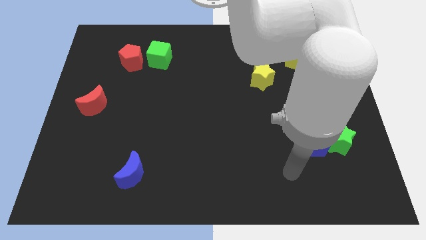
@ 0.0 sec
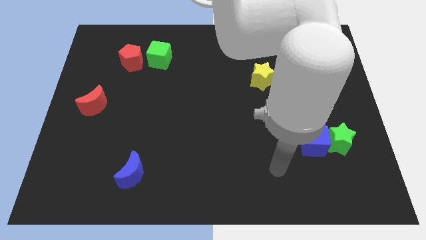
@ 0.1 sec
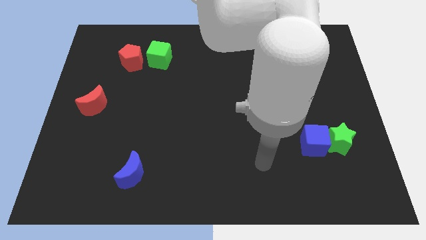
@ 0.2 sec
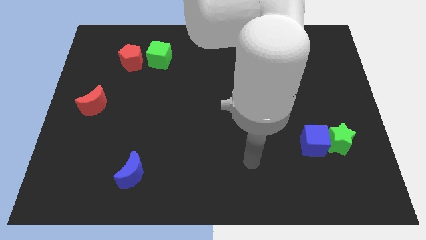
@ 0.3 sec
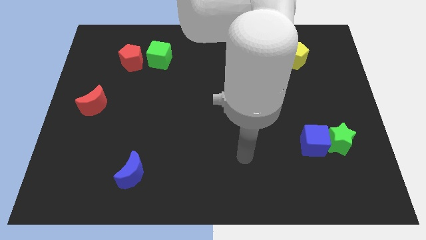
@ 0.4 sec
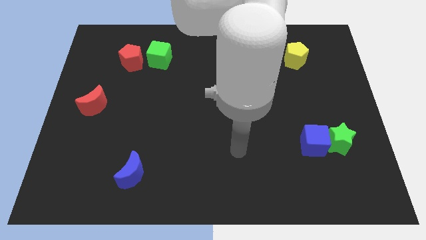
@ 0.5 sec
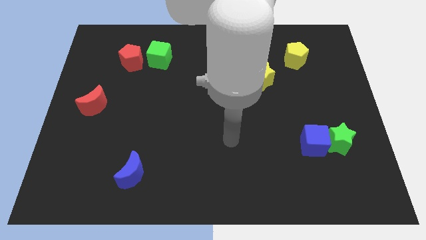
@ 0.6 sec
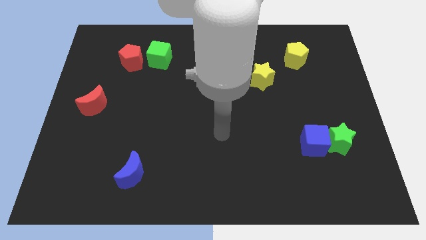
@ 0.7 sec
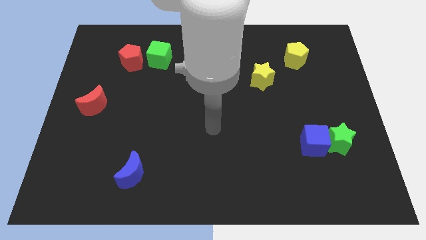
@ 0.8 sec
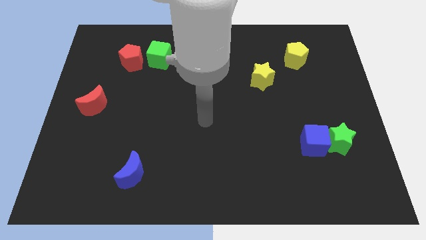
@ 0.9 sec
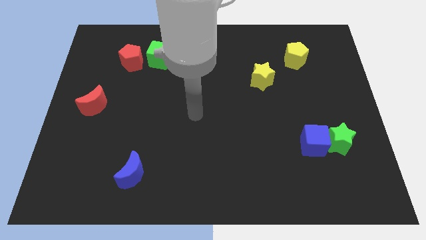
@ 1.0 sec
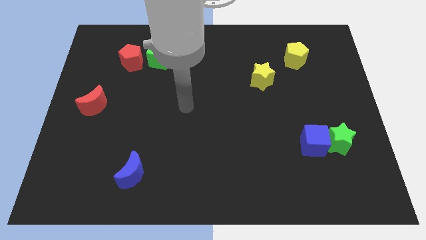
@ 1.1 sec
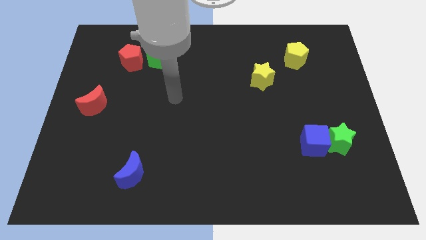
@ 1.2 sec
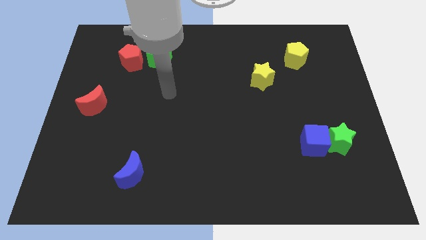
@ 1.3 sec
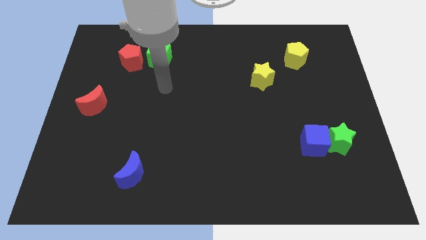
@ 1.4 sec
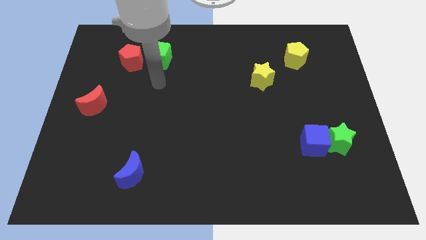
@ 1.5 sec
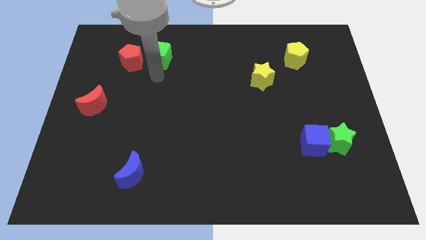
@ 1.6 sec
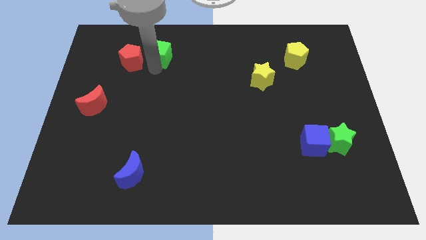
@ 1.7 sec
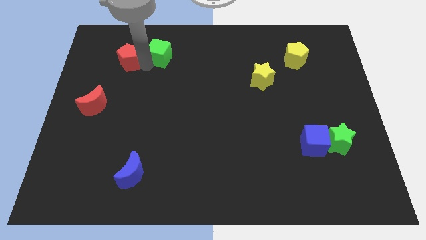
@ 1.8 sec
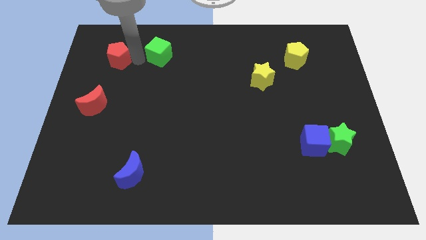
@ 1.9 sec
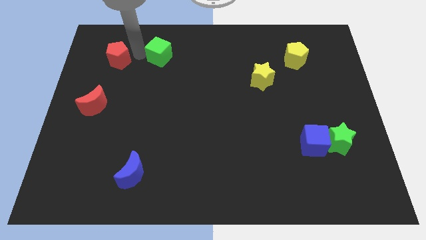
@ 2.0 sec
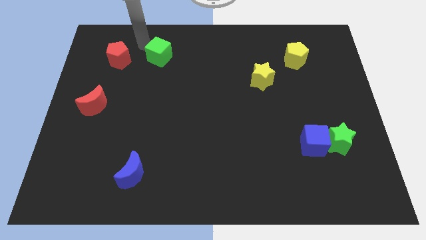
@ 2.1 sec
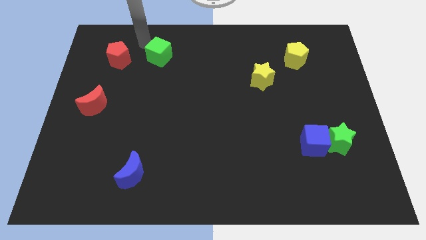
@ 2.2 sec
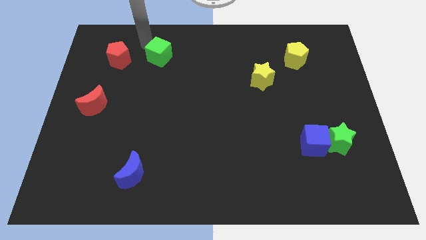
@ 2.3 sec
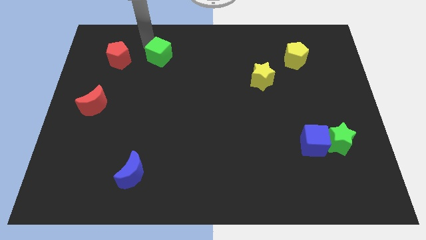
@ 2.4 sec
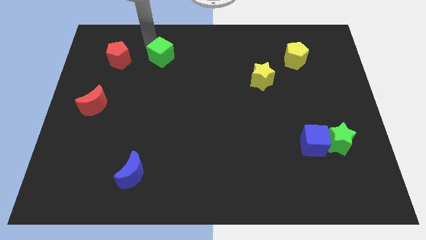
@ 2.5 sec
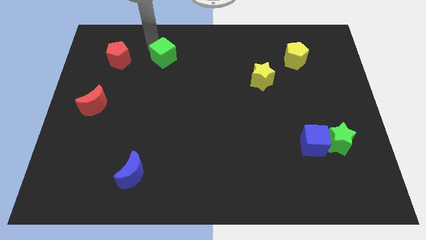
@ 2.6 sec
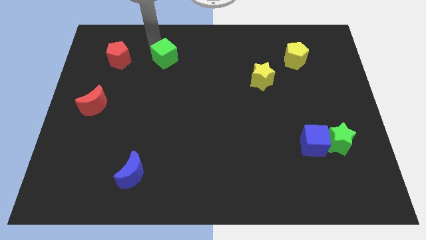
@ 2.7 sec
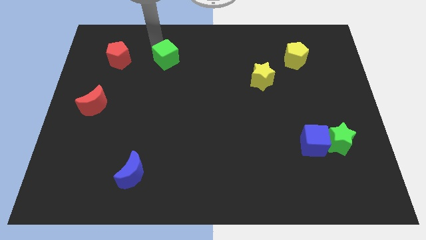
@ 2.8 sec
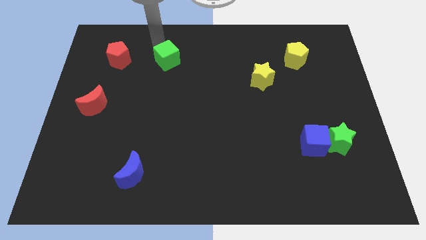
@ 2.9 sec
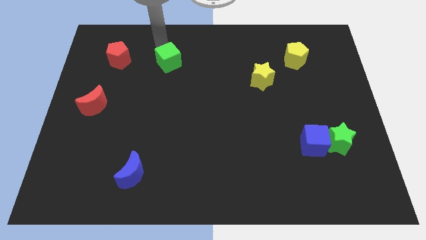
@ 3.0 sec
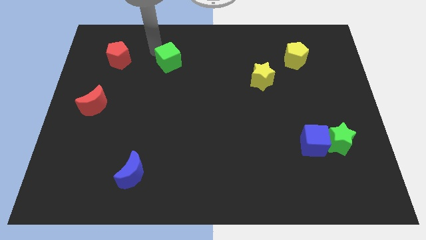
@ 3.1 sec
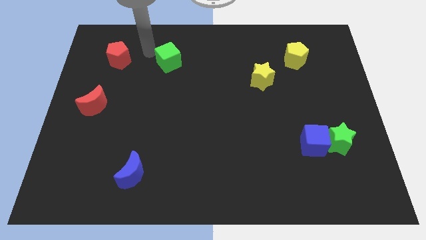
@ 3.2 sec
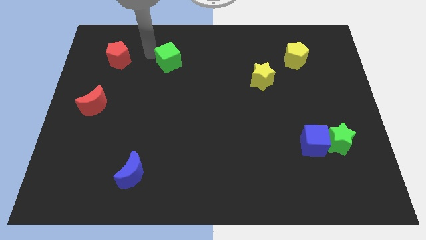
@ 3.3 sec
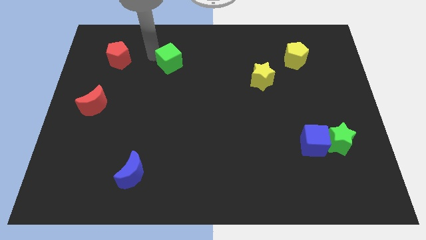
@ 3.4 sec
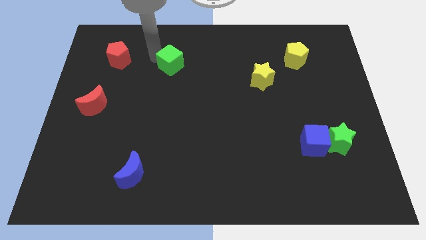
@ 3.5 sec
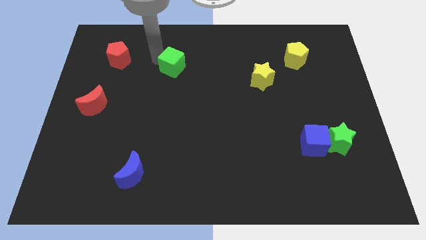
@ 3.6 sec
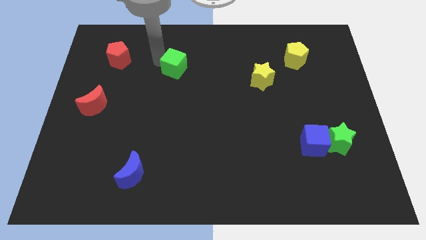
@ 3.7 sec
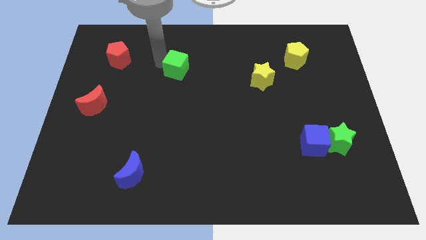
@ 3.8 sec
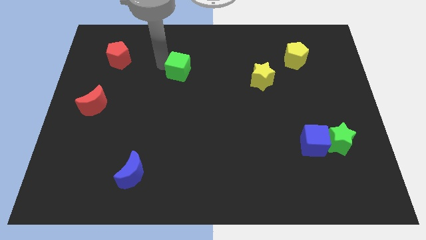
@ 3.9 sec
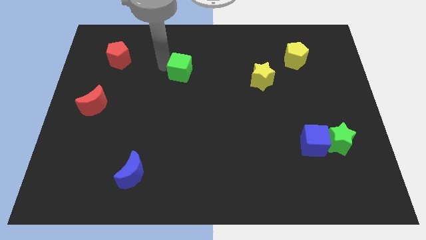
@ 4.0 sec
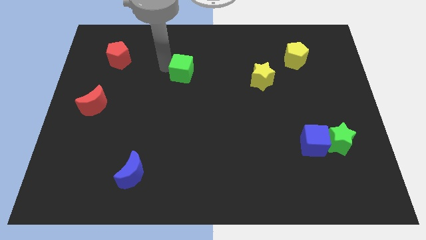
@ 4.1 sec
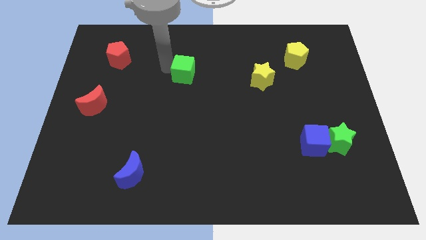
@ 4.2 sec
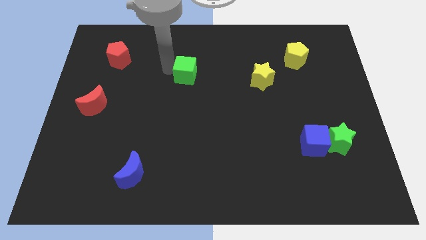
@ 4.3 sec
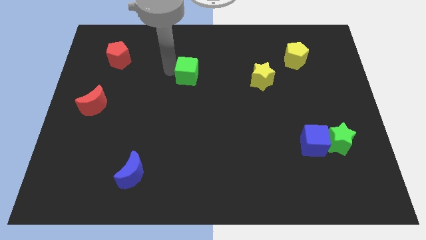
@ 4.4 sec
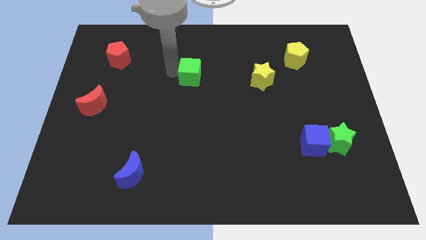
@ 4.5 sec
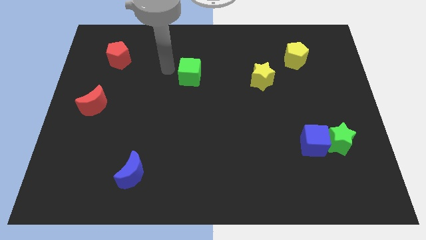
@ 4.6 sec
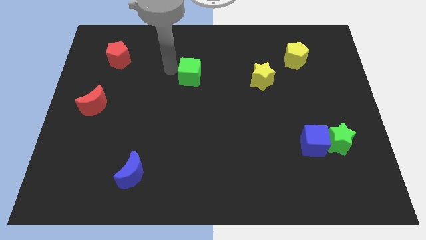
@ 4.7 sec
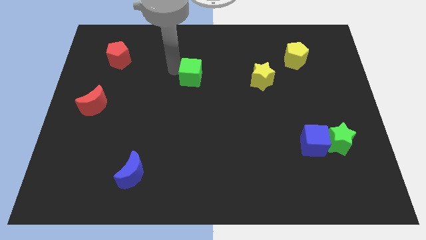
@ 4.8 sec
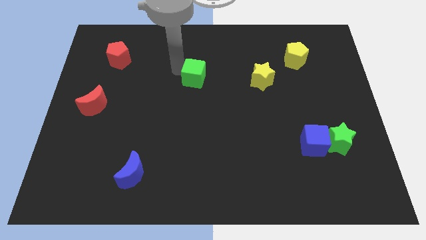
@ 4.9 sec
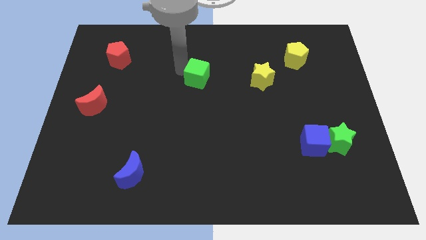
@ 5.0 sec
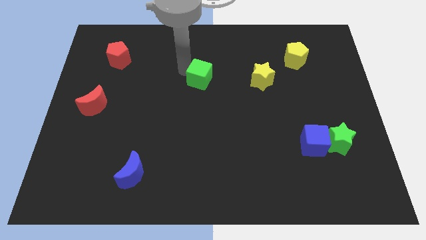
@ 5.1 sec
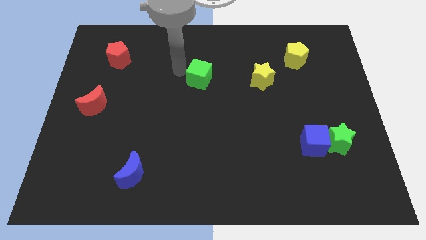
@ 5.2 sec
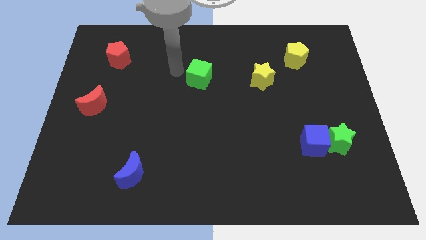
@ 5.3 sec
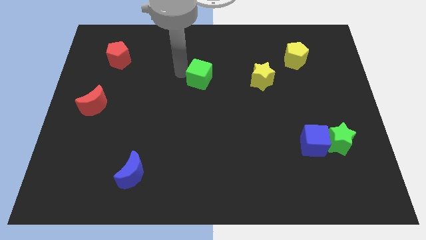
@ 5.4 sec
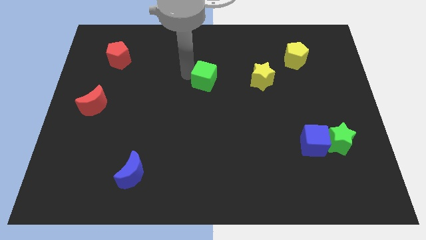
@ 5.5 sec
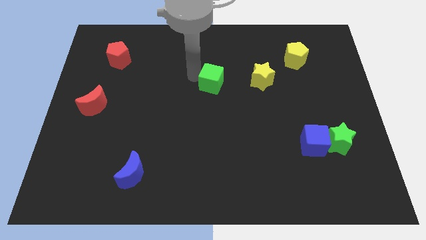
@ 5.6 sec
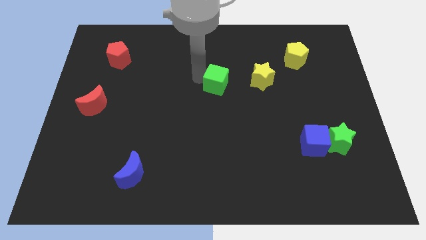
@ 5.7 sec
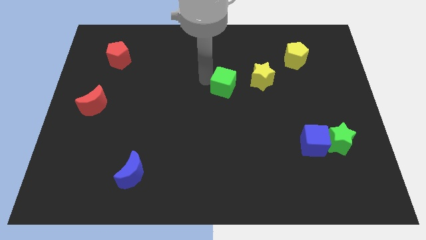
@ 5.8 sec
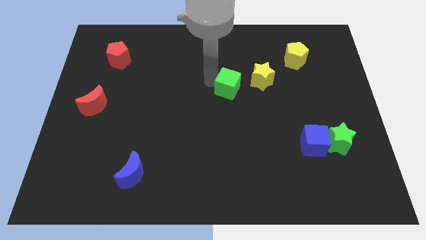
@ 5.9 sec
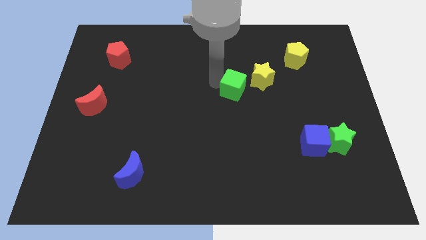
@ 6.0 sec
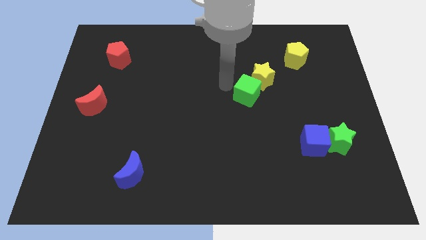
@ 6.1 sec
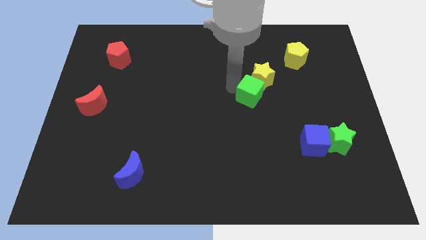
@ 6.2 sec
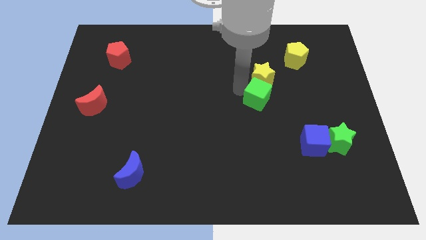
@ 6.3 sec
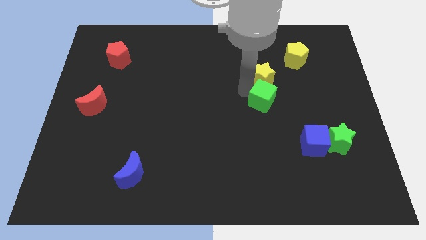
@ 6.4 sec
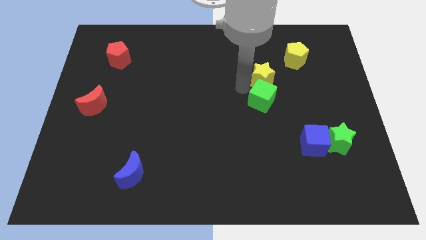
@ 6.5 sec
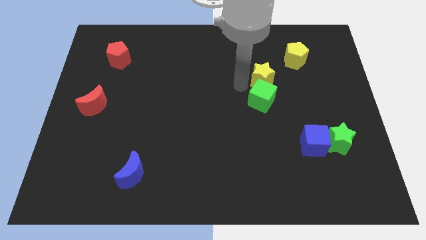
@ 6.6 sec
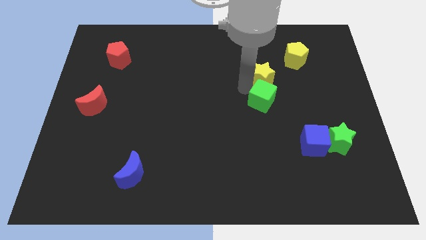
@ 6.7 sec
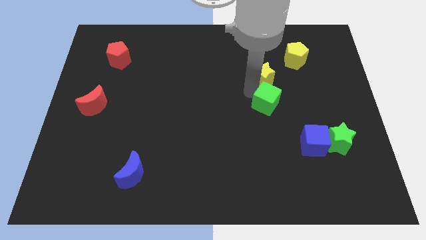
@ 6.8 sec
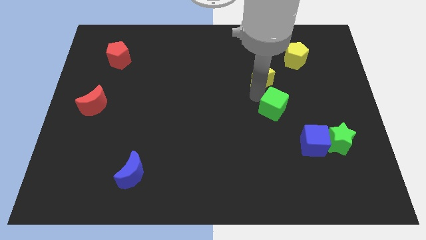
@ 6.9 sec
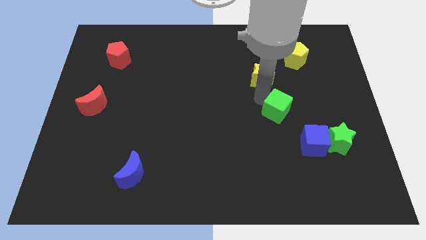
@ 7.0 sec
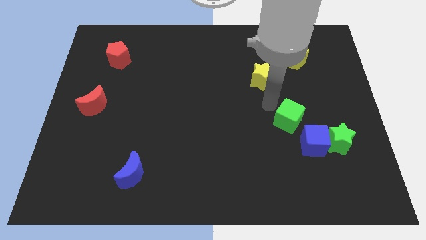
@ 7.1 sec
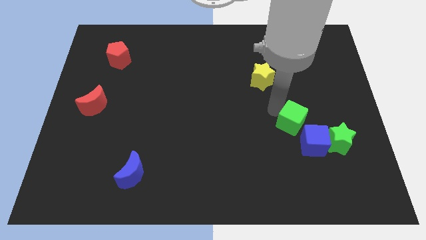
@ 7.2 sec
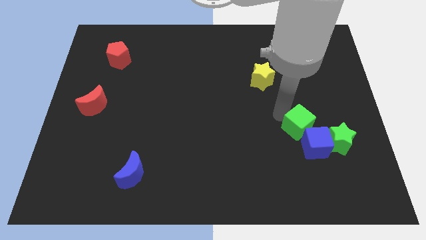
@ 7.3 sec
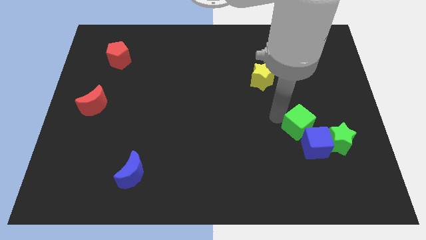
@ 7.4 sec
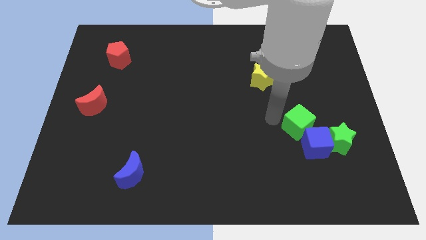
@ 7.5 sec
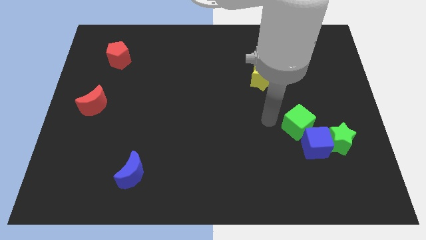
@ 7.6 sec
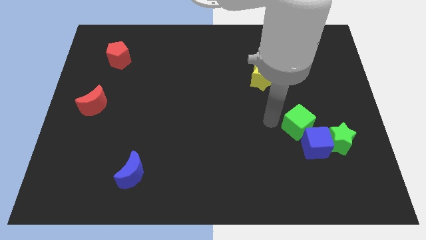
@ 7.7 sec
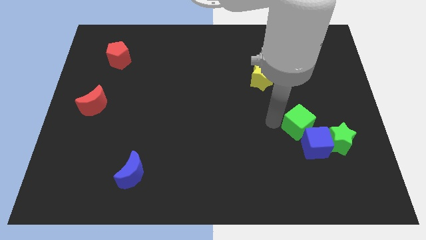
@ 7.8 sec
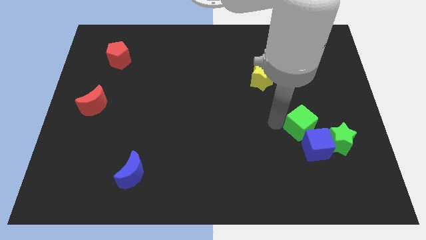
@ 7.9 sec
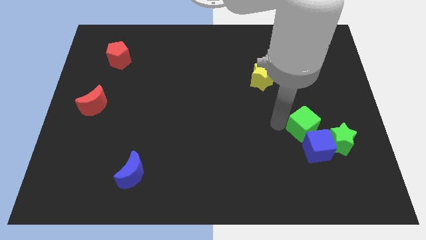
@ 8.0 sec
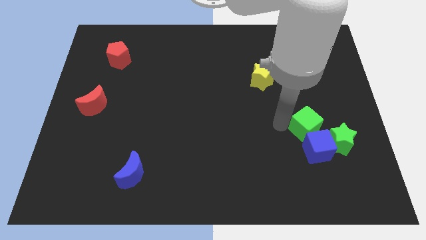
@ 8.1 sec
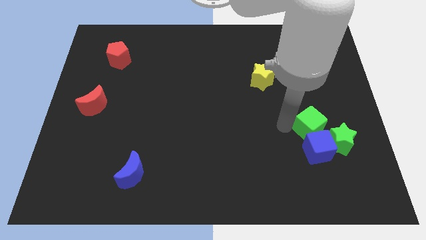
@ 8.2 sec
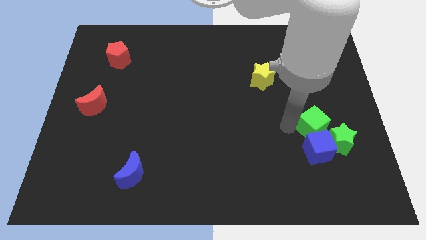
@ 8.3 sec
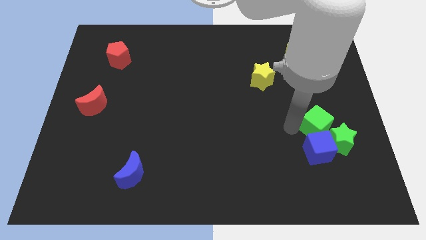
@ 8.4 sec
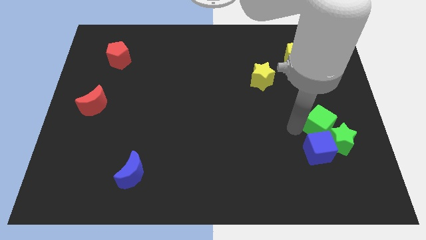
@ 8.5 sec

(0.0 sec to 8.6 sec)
put the green cube close to the green star
